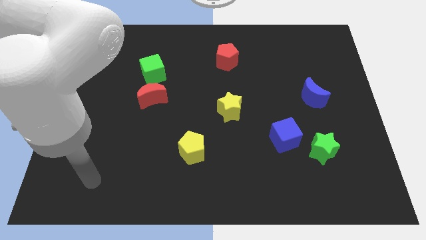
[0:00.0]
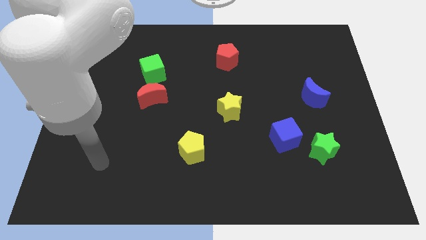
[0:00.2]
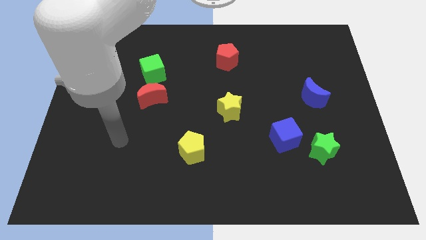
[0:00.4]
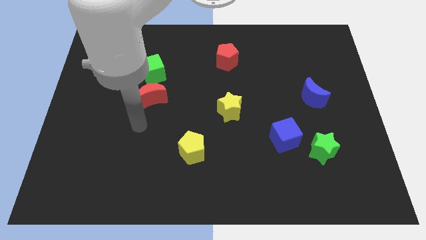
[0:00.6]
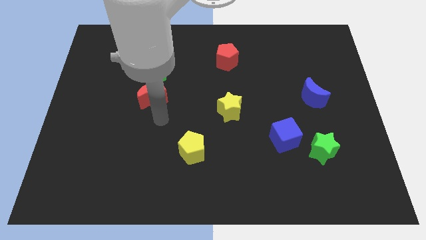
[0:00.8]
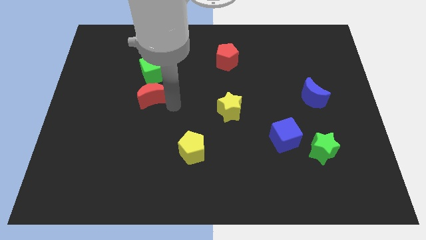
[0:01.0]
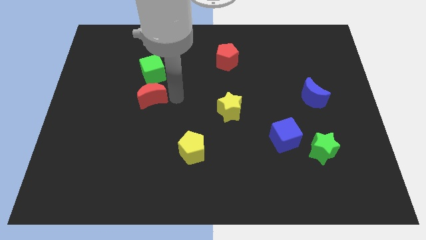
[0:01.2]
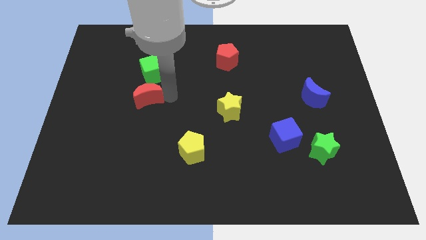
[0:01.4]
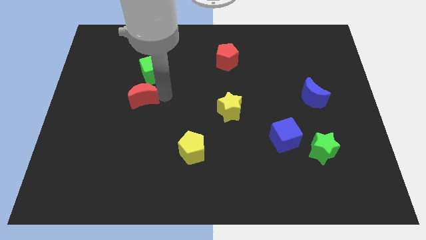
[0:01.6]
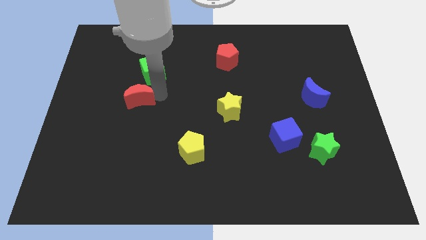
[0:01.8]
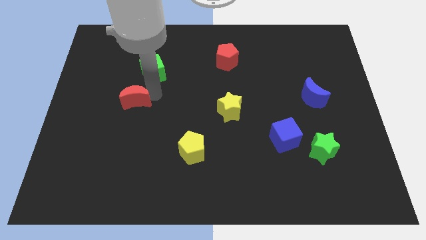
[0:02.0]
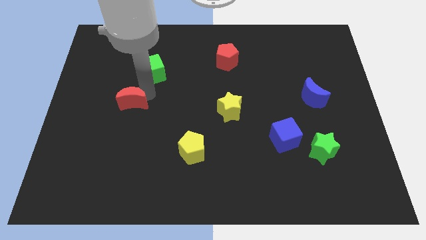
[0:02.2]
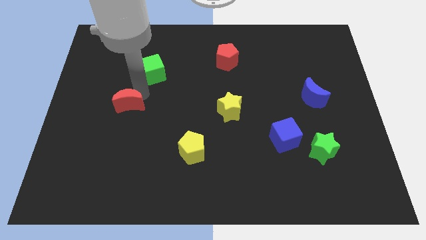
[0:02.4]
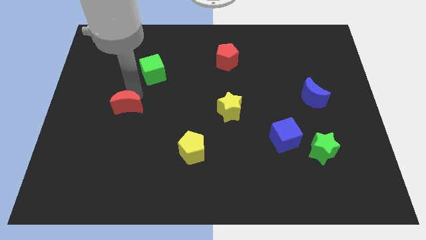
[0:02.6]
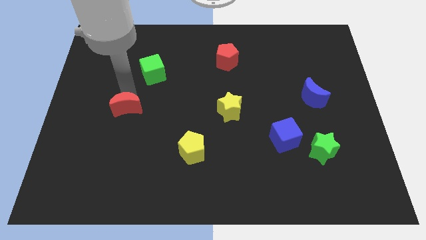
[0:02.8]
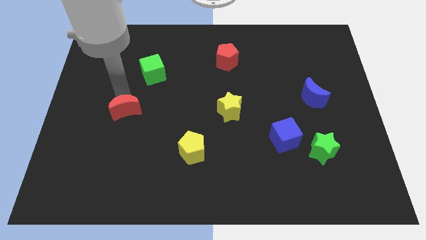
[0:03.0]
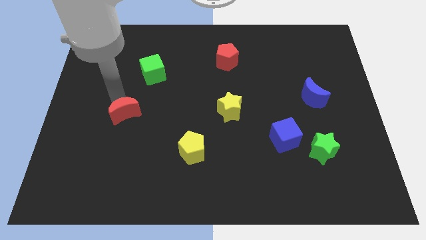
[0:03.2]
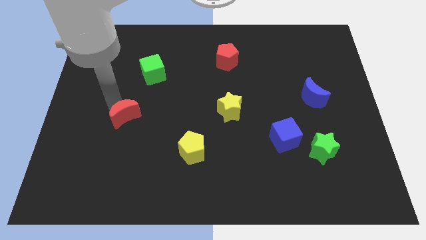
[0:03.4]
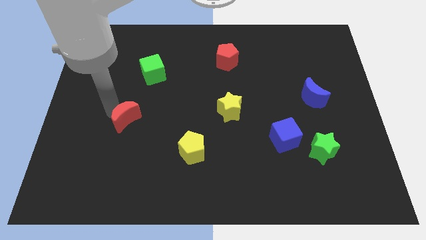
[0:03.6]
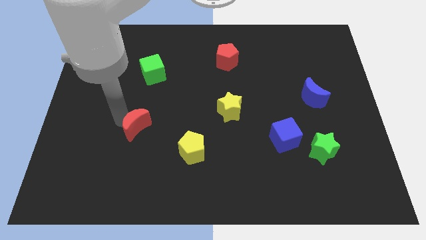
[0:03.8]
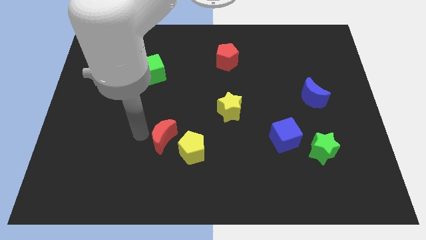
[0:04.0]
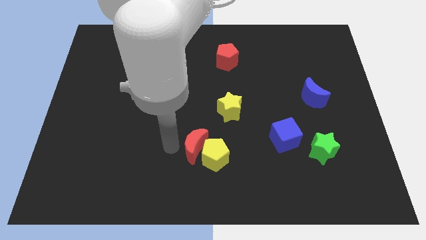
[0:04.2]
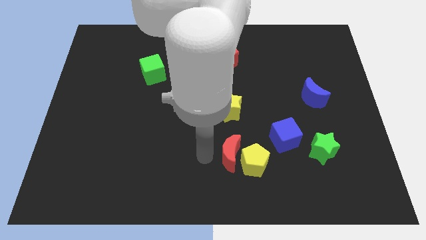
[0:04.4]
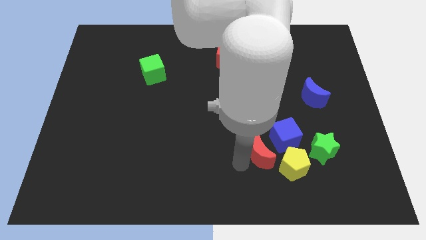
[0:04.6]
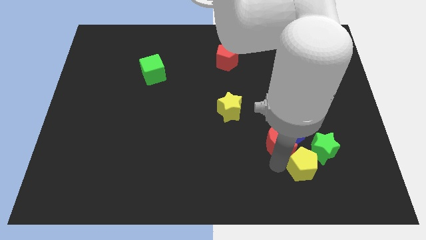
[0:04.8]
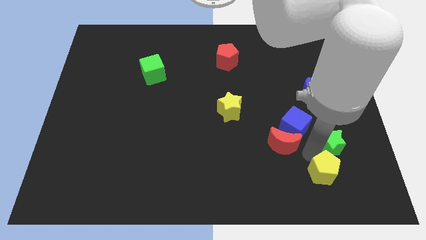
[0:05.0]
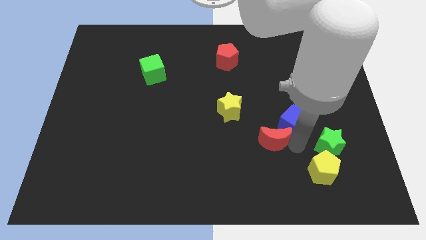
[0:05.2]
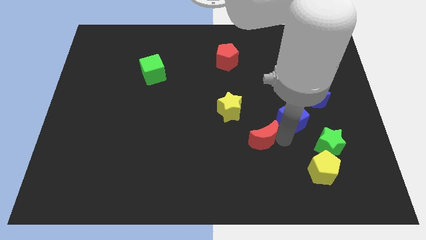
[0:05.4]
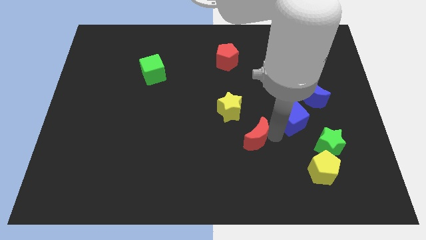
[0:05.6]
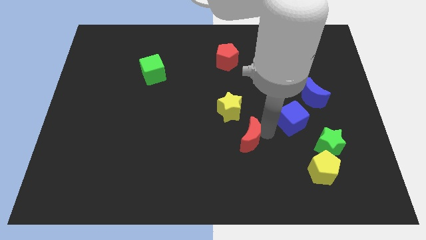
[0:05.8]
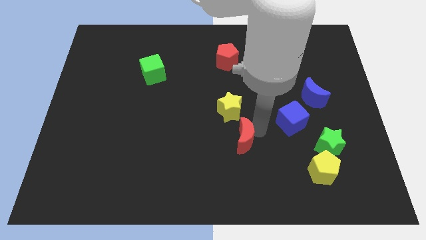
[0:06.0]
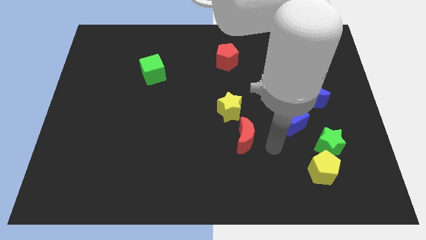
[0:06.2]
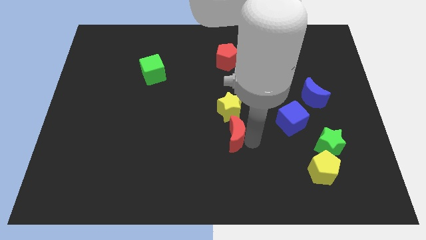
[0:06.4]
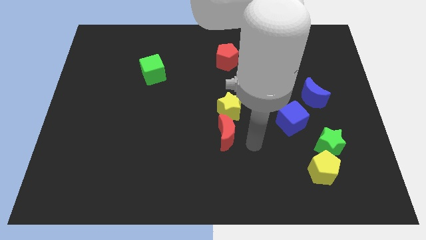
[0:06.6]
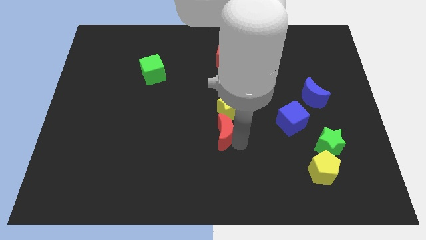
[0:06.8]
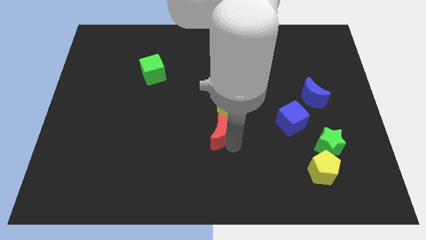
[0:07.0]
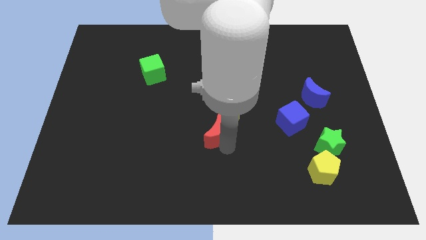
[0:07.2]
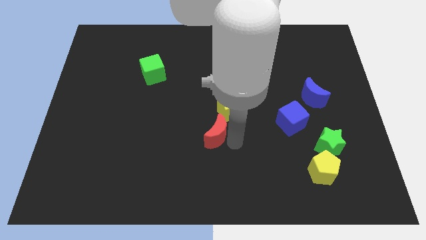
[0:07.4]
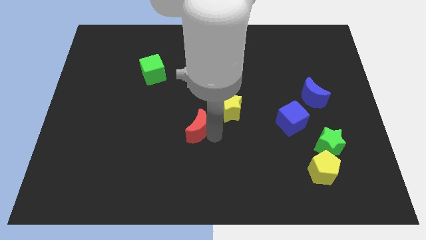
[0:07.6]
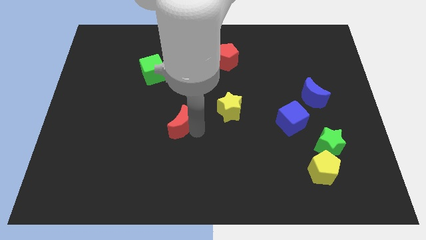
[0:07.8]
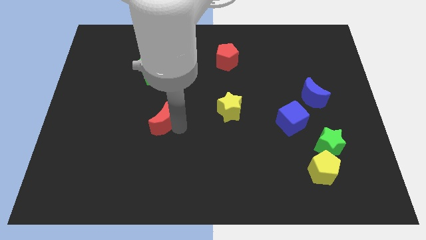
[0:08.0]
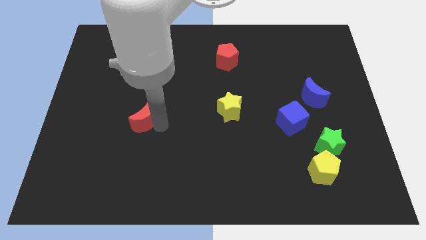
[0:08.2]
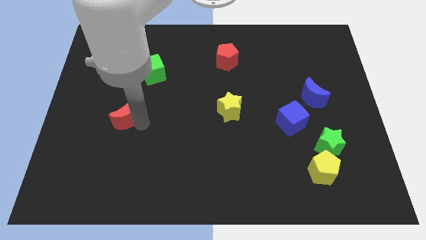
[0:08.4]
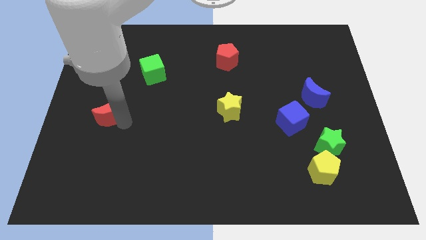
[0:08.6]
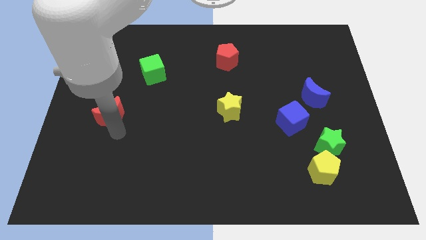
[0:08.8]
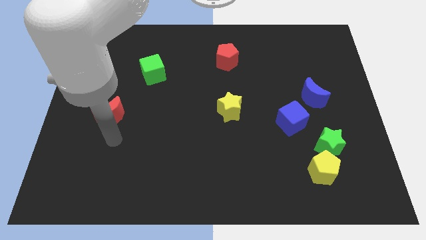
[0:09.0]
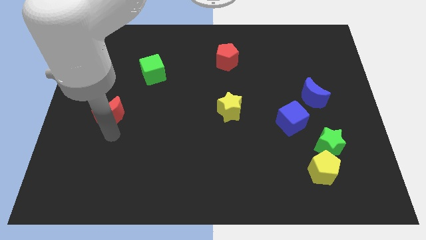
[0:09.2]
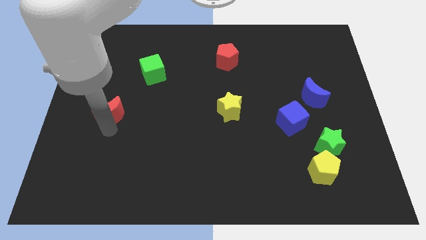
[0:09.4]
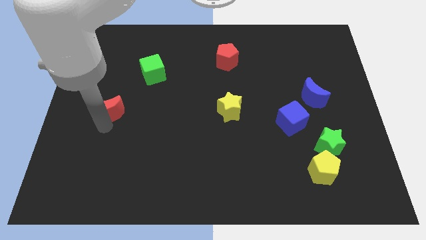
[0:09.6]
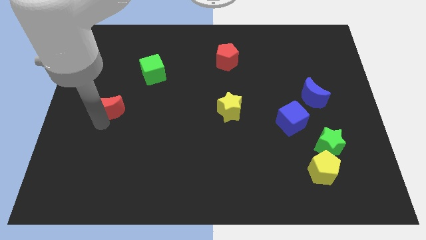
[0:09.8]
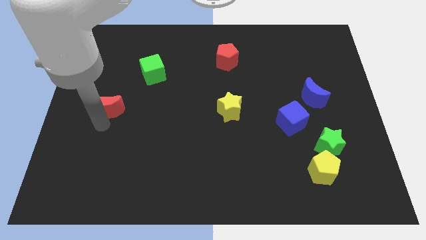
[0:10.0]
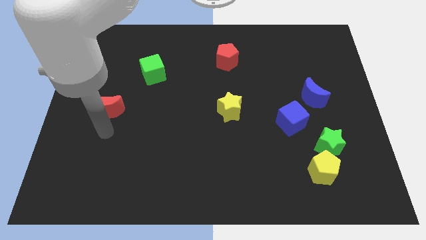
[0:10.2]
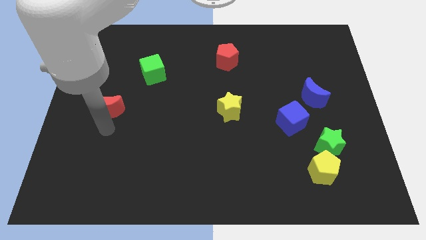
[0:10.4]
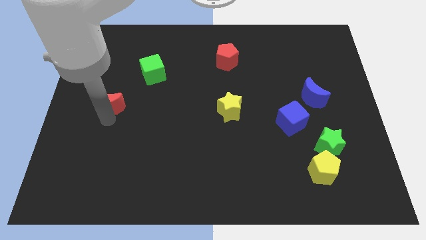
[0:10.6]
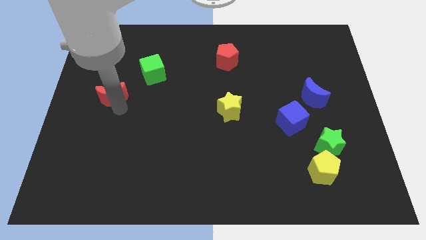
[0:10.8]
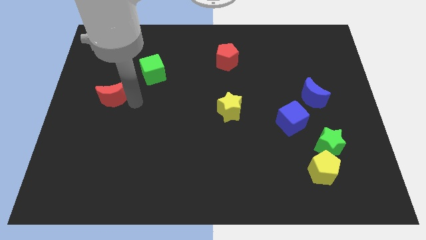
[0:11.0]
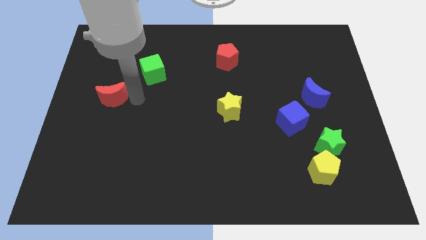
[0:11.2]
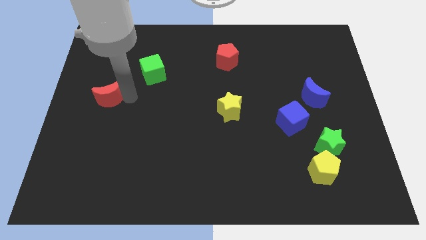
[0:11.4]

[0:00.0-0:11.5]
put the red moon to the left side of the board

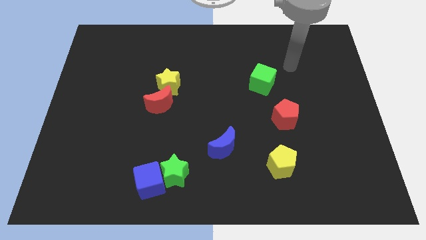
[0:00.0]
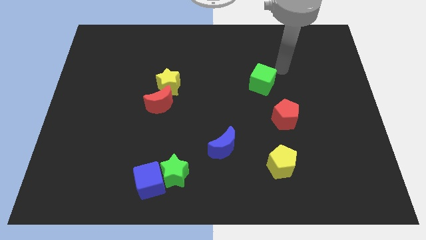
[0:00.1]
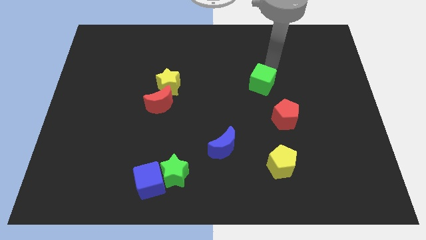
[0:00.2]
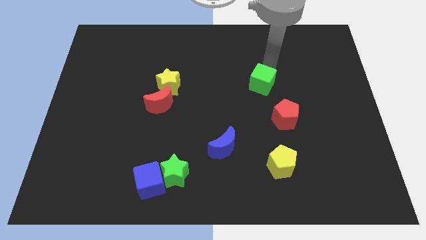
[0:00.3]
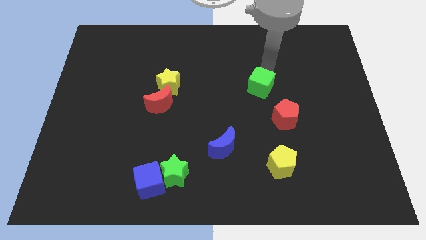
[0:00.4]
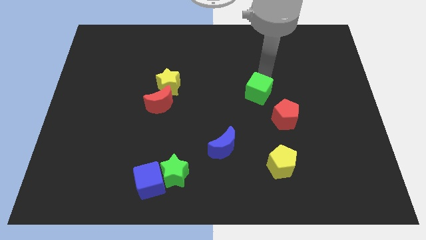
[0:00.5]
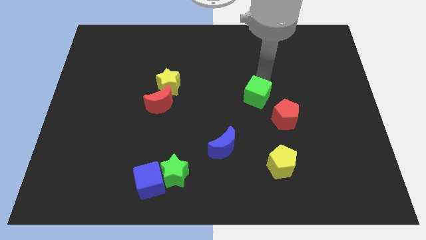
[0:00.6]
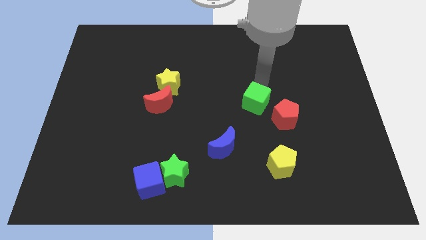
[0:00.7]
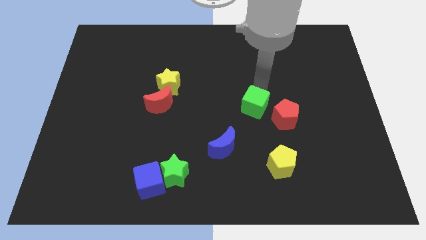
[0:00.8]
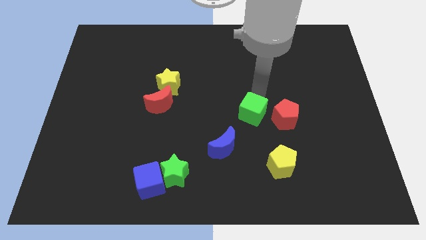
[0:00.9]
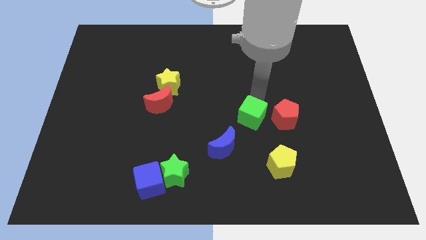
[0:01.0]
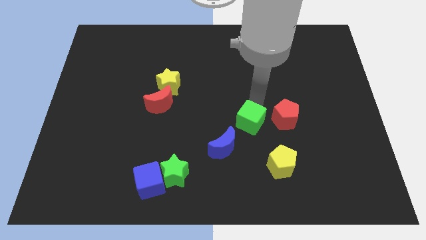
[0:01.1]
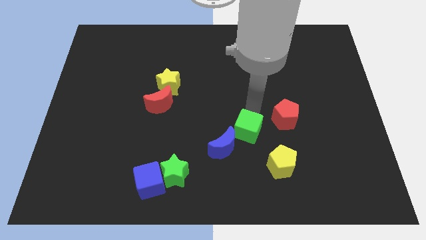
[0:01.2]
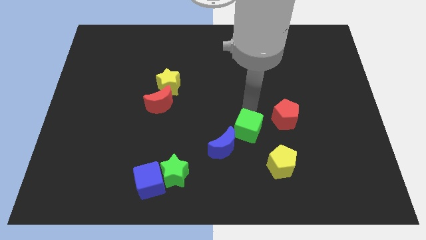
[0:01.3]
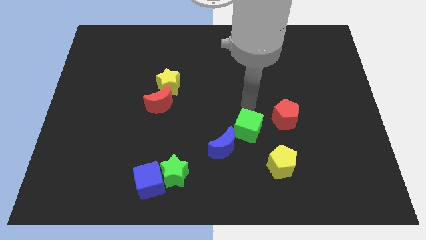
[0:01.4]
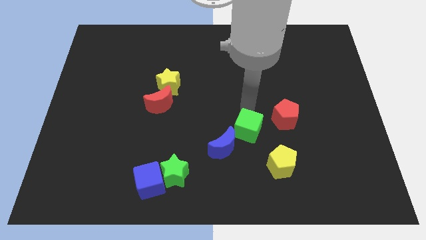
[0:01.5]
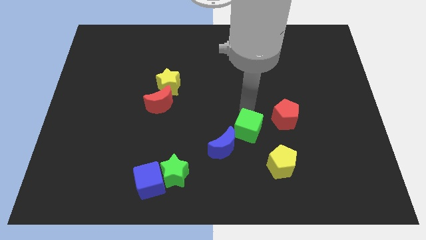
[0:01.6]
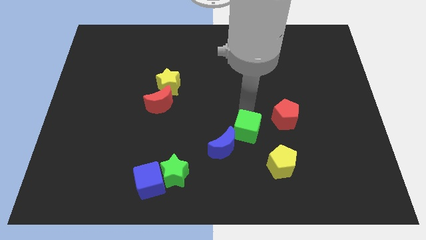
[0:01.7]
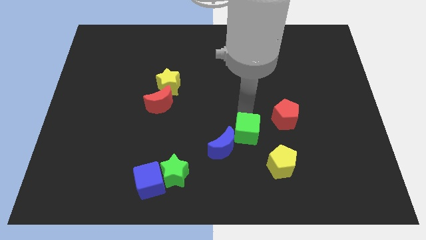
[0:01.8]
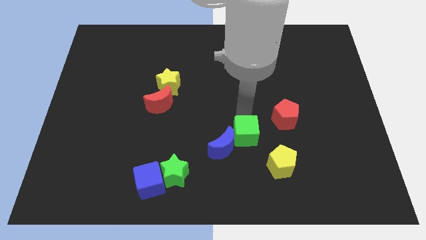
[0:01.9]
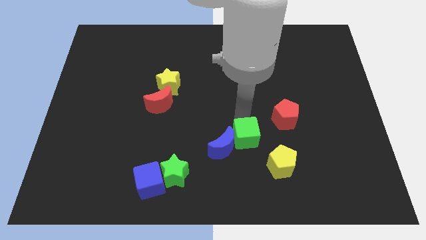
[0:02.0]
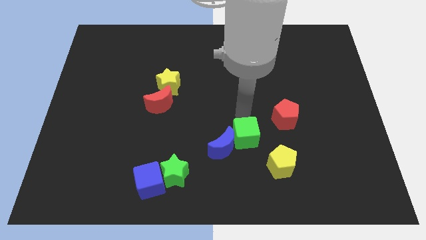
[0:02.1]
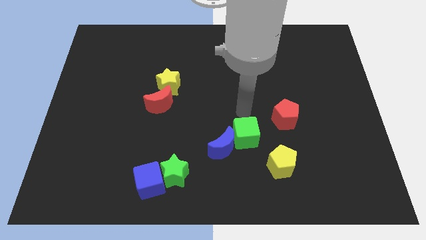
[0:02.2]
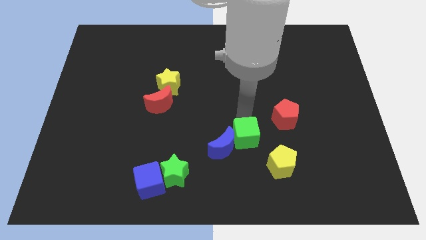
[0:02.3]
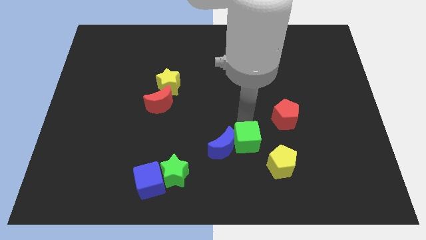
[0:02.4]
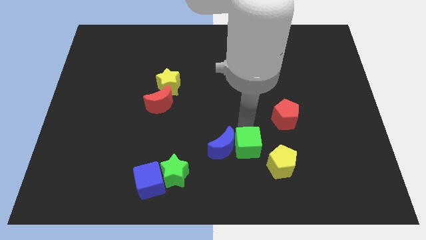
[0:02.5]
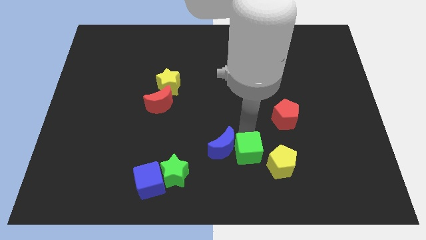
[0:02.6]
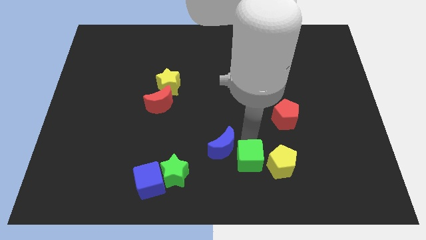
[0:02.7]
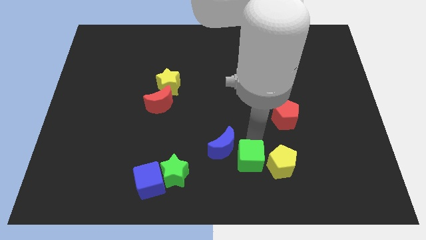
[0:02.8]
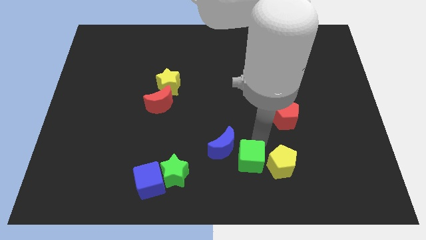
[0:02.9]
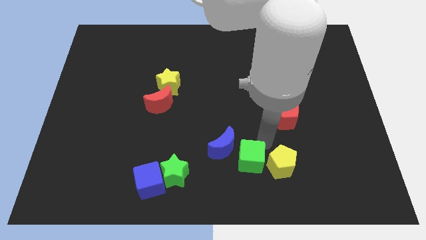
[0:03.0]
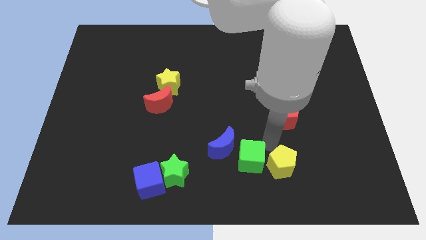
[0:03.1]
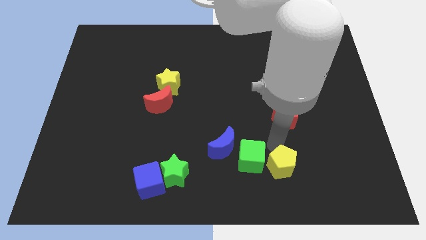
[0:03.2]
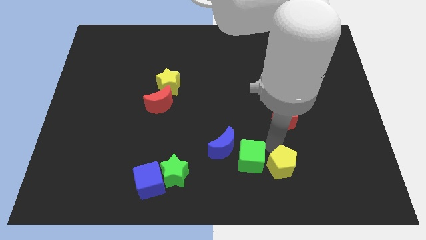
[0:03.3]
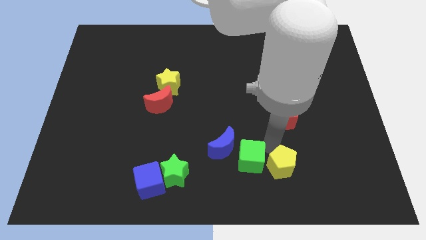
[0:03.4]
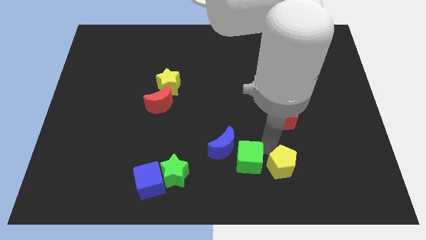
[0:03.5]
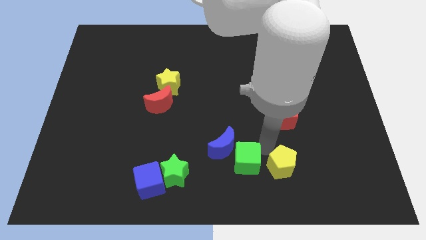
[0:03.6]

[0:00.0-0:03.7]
put the green cube to the bottom
